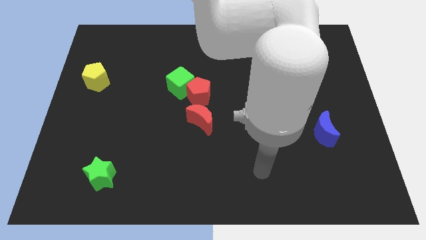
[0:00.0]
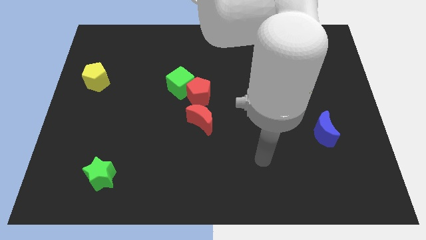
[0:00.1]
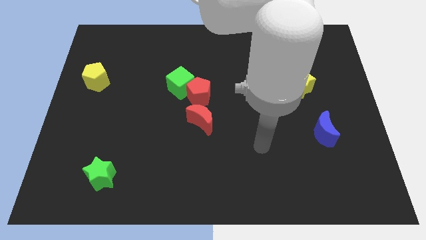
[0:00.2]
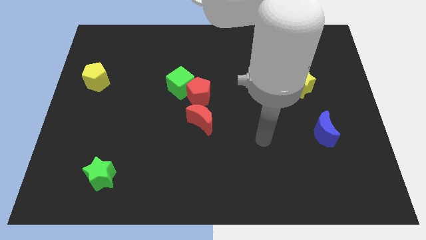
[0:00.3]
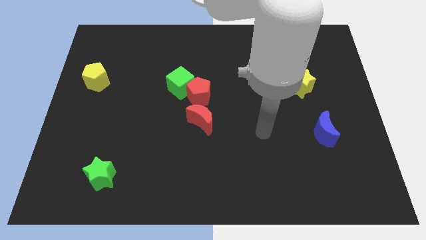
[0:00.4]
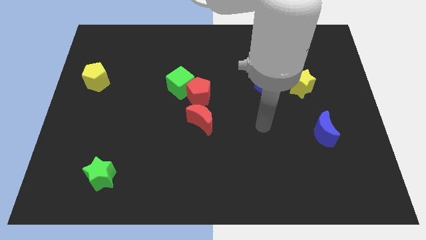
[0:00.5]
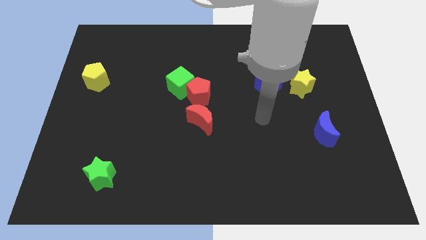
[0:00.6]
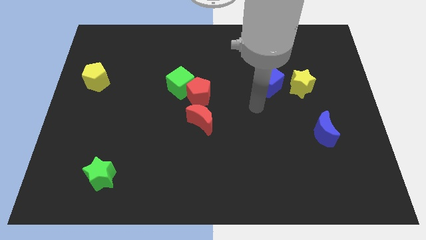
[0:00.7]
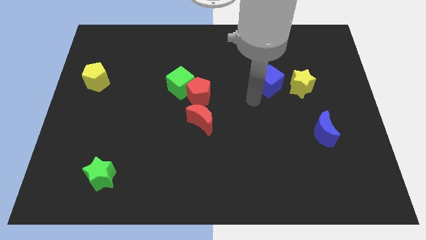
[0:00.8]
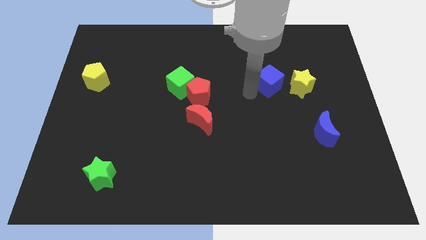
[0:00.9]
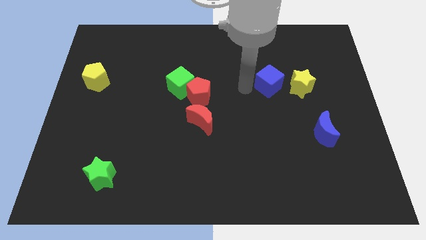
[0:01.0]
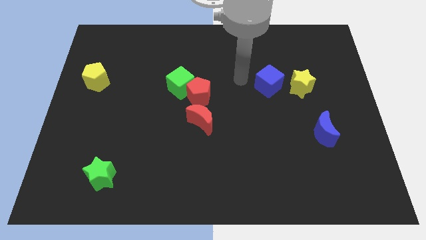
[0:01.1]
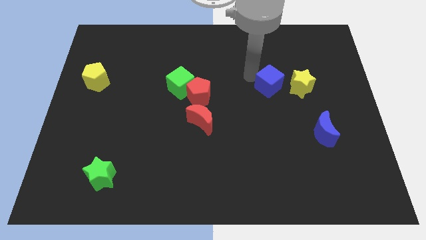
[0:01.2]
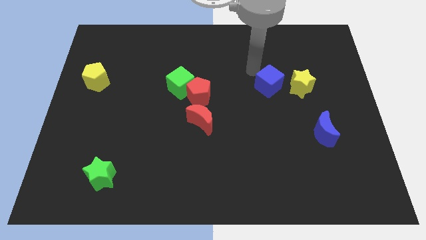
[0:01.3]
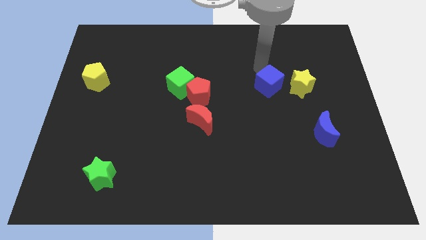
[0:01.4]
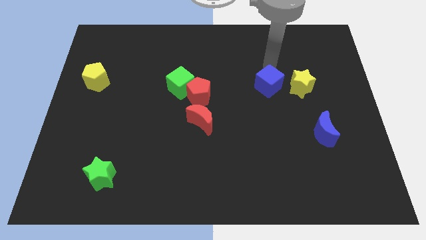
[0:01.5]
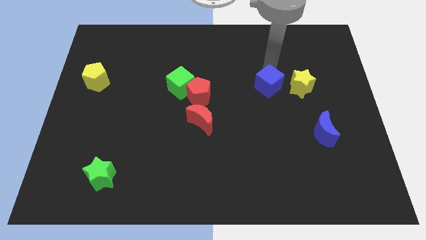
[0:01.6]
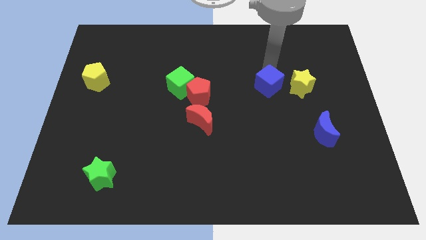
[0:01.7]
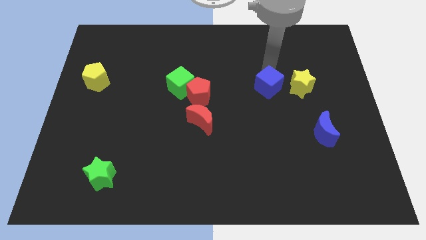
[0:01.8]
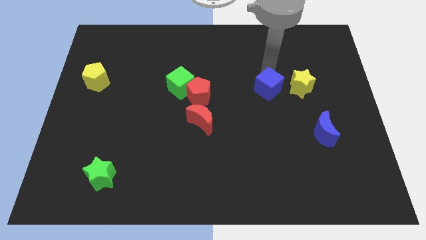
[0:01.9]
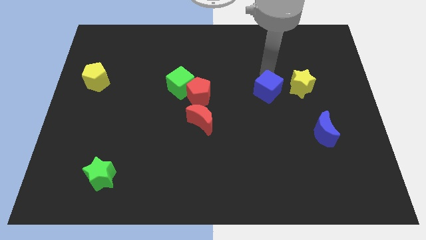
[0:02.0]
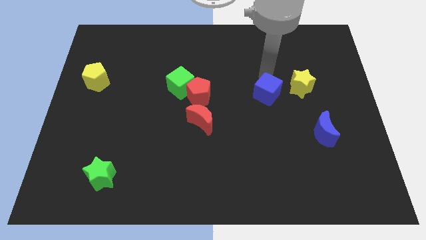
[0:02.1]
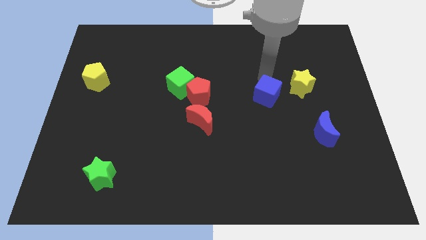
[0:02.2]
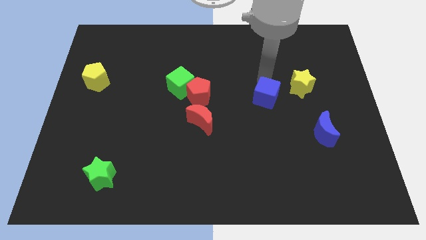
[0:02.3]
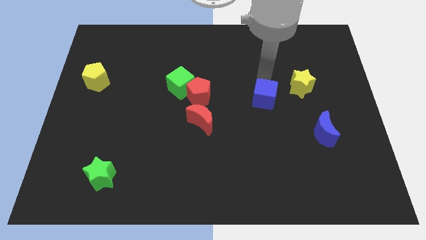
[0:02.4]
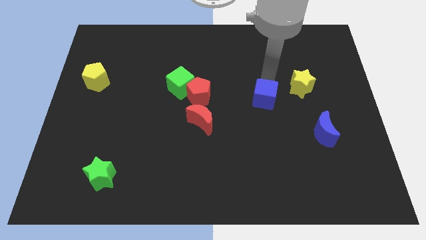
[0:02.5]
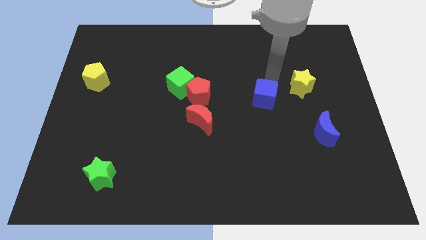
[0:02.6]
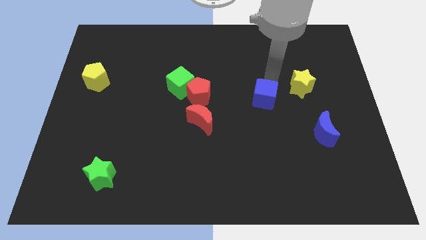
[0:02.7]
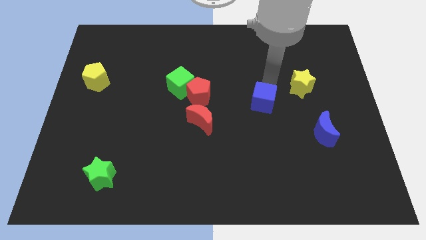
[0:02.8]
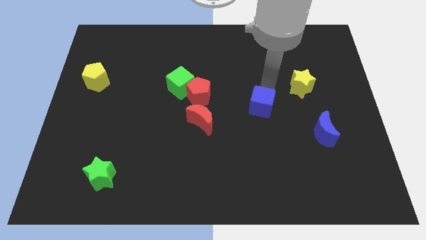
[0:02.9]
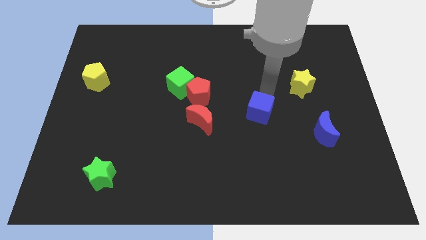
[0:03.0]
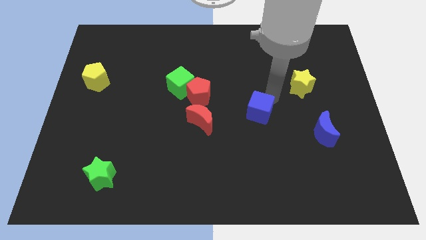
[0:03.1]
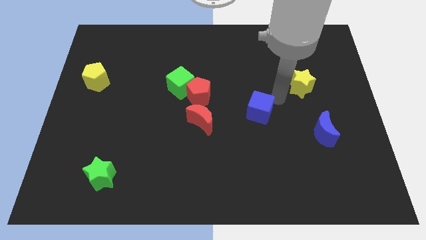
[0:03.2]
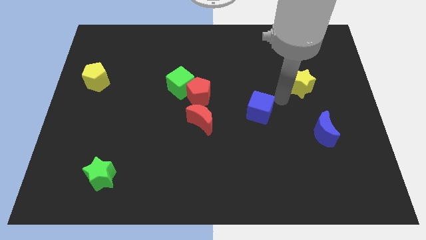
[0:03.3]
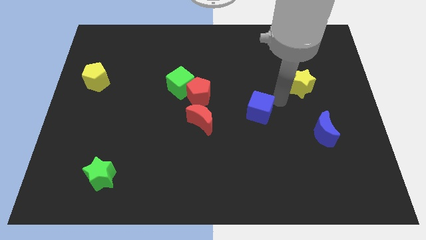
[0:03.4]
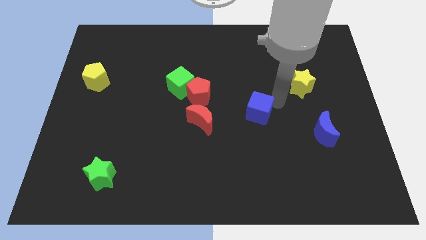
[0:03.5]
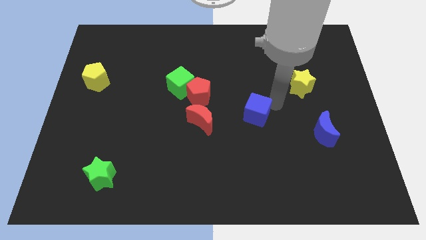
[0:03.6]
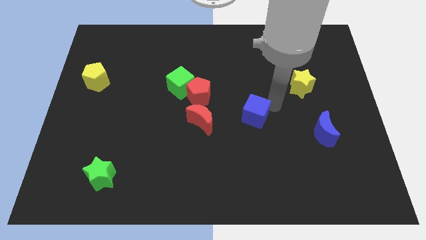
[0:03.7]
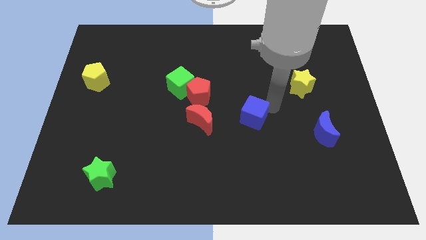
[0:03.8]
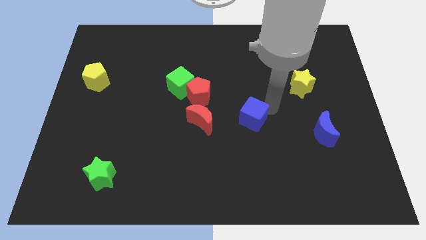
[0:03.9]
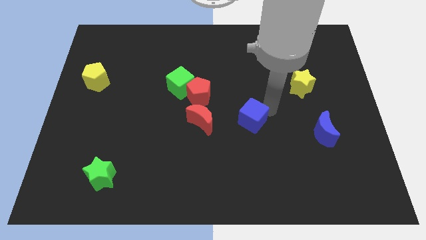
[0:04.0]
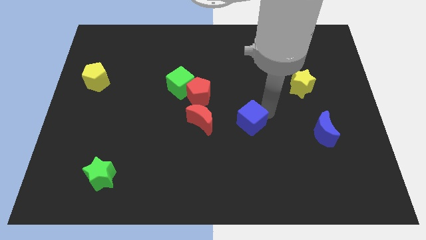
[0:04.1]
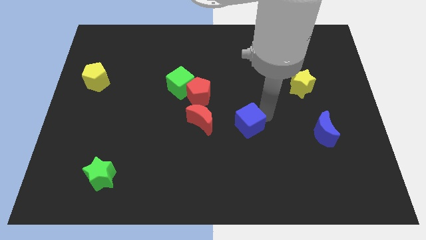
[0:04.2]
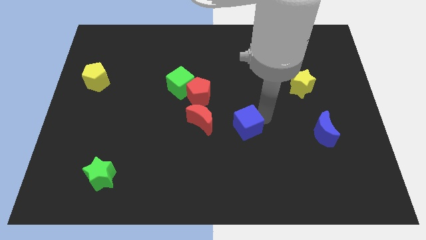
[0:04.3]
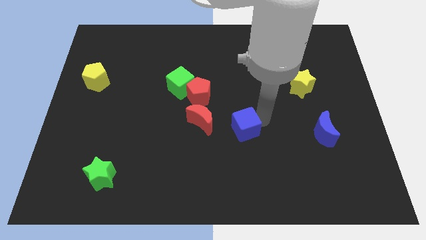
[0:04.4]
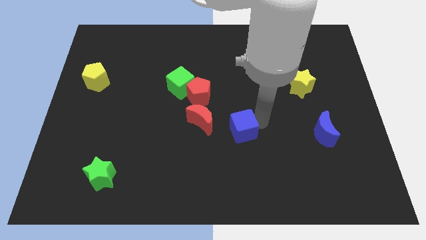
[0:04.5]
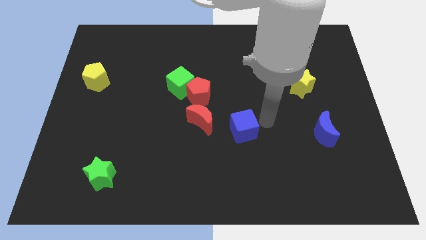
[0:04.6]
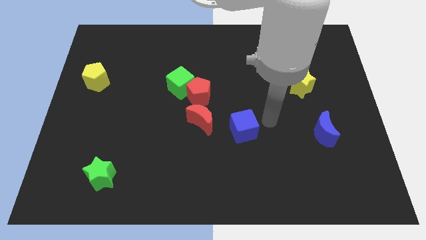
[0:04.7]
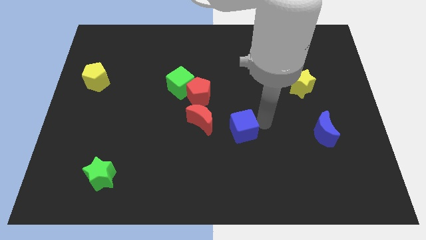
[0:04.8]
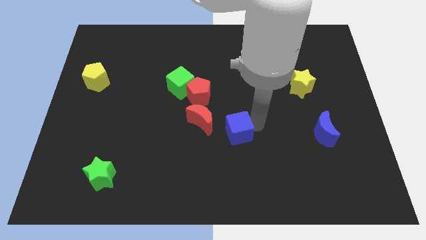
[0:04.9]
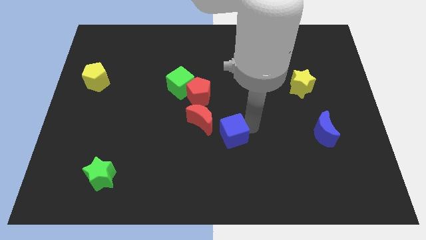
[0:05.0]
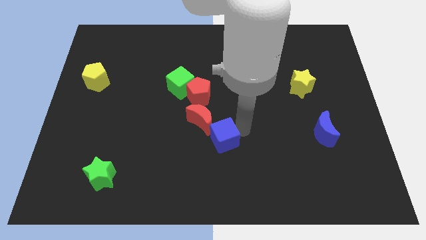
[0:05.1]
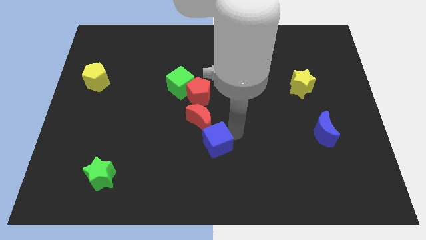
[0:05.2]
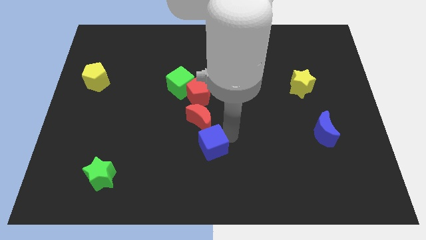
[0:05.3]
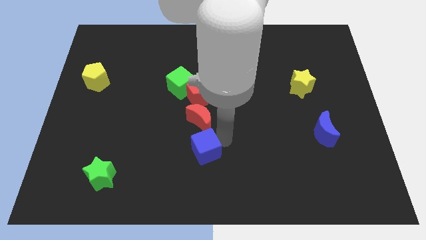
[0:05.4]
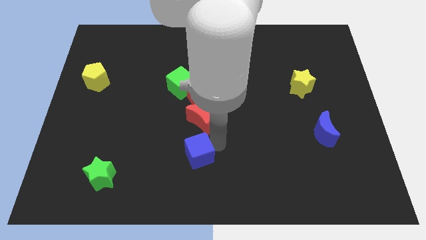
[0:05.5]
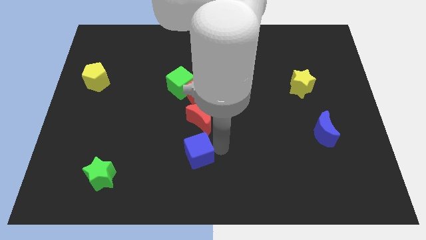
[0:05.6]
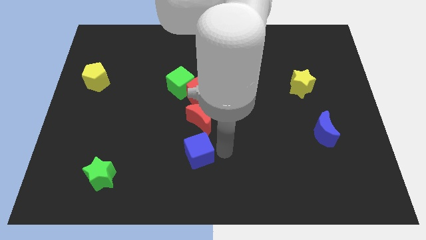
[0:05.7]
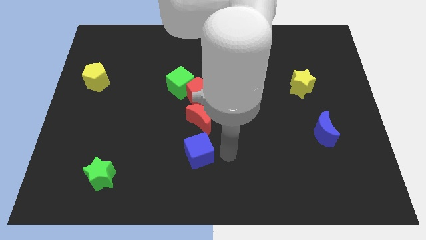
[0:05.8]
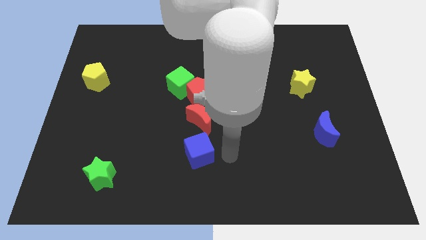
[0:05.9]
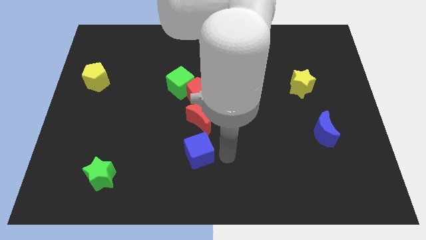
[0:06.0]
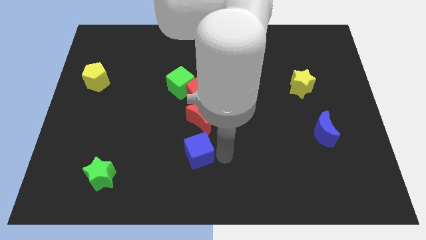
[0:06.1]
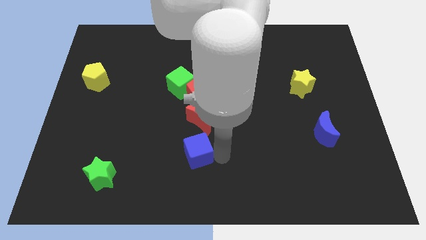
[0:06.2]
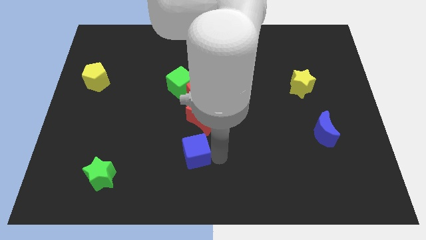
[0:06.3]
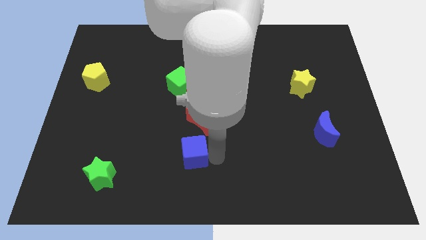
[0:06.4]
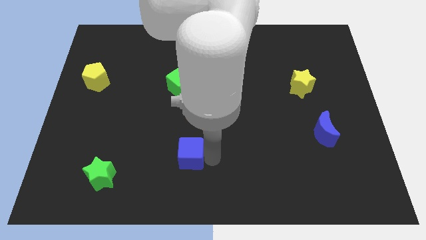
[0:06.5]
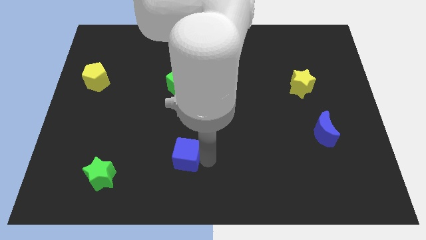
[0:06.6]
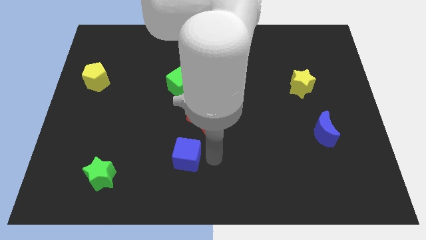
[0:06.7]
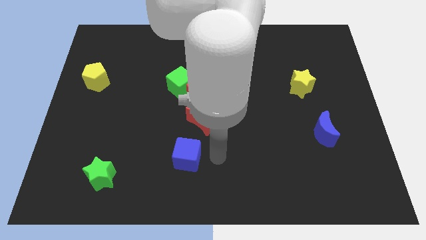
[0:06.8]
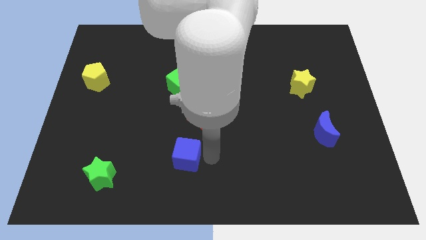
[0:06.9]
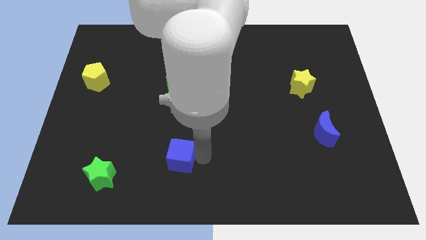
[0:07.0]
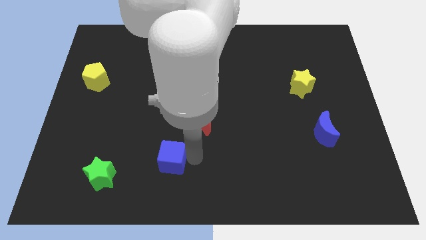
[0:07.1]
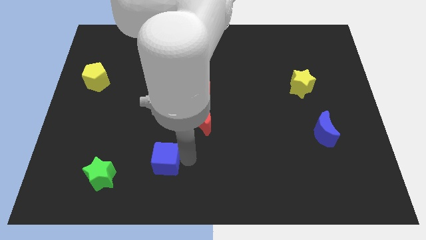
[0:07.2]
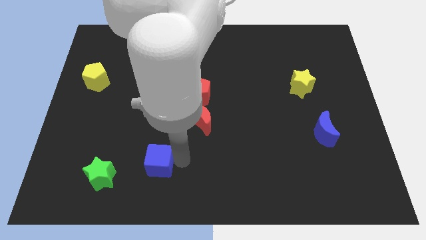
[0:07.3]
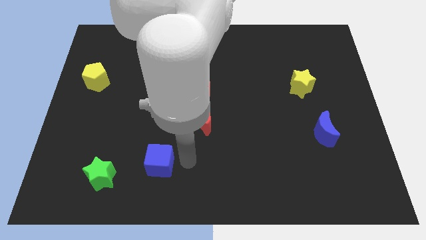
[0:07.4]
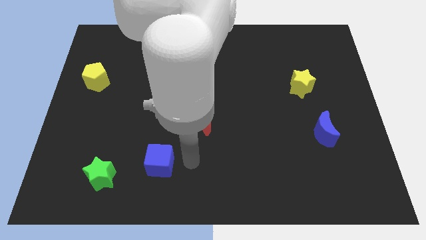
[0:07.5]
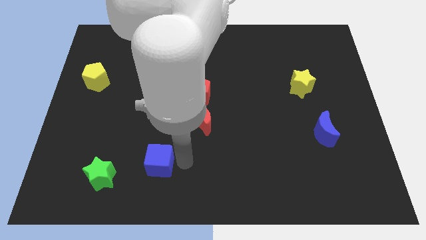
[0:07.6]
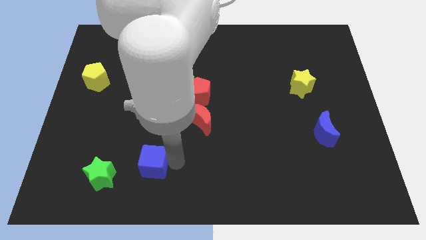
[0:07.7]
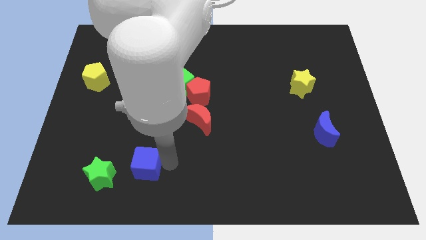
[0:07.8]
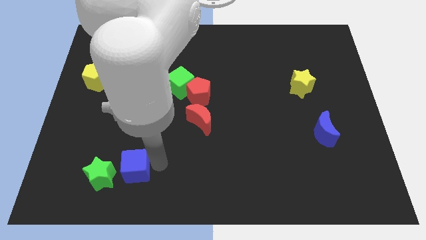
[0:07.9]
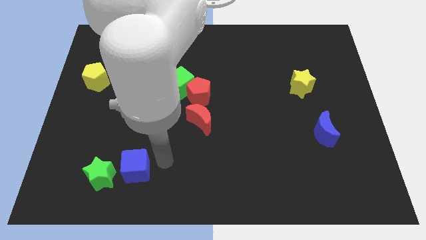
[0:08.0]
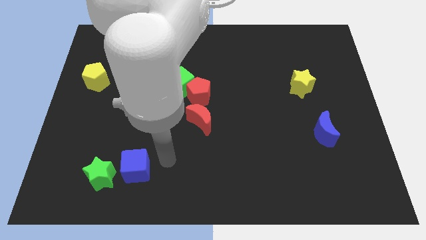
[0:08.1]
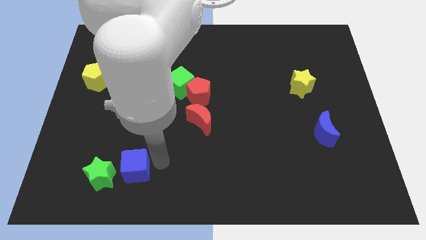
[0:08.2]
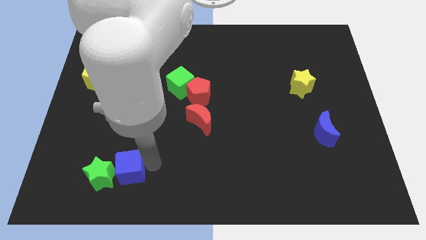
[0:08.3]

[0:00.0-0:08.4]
push the blue cube next to the green star
